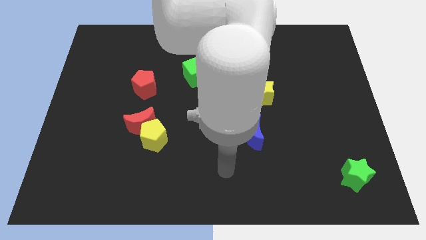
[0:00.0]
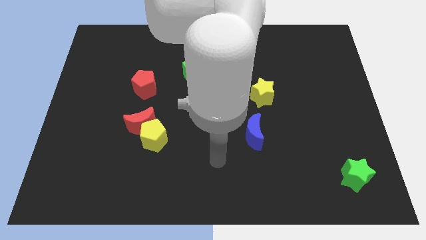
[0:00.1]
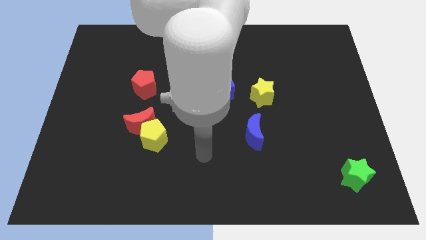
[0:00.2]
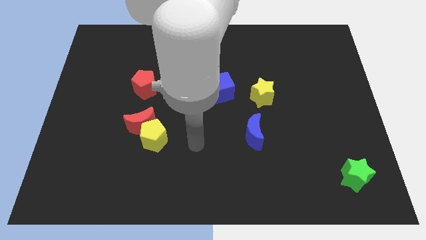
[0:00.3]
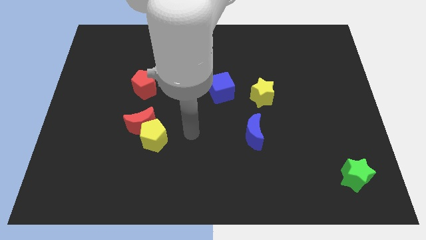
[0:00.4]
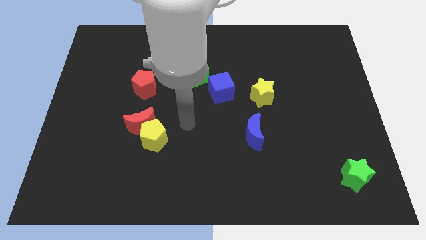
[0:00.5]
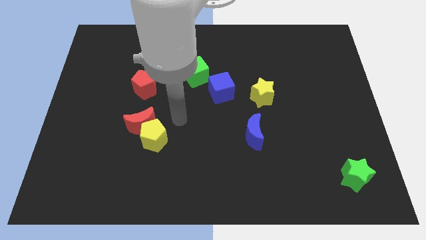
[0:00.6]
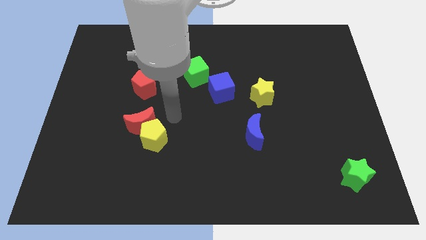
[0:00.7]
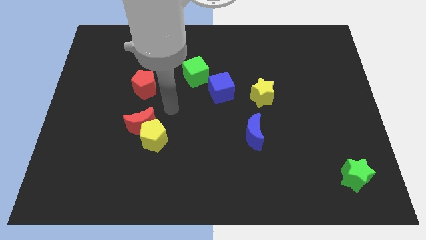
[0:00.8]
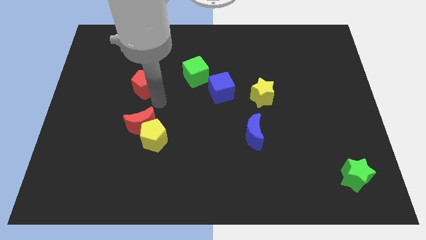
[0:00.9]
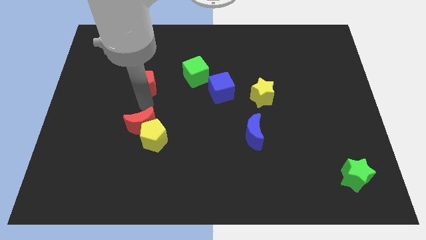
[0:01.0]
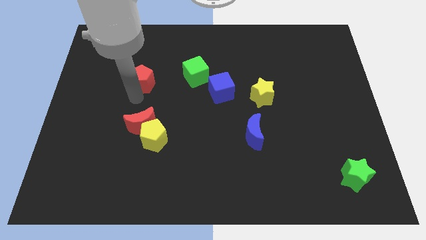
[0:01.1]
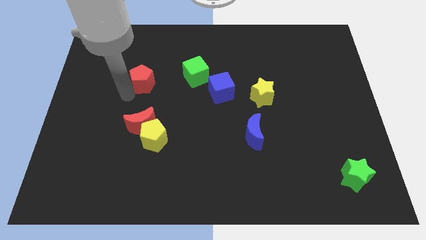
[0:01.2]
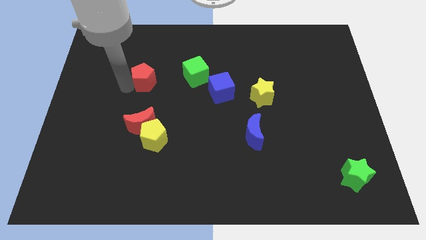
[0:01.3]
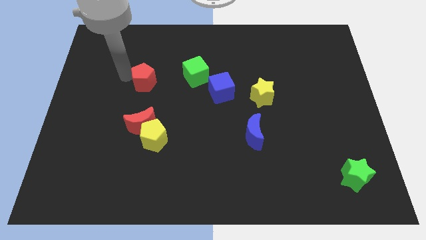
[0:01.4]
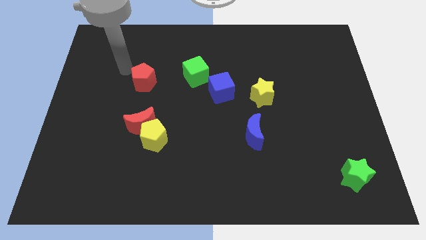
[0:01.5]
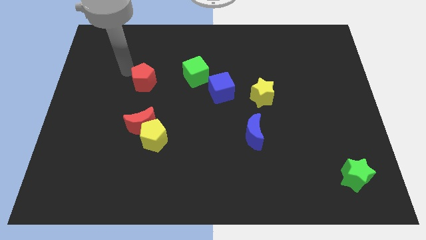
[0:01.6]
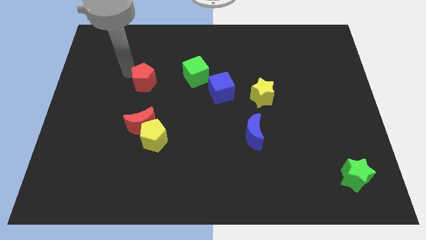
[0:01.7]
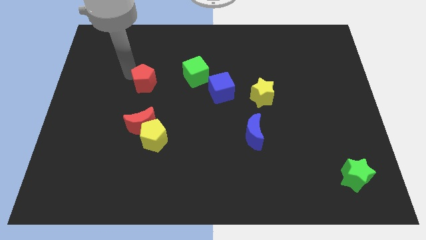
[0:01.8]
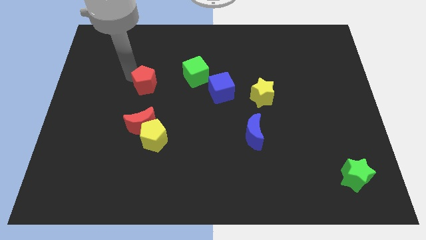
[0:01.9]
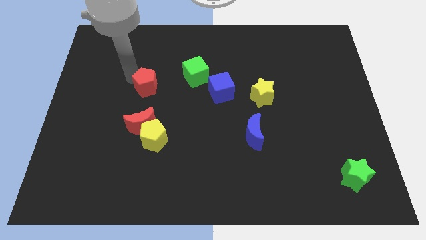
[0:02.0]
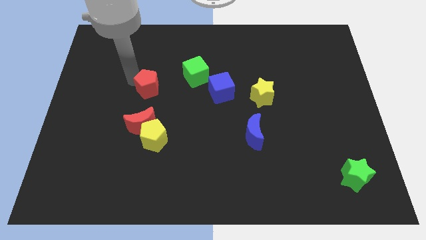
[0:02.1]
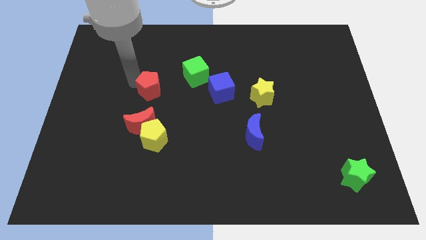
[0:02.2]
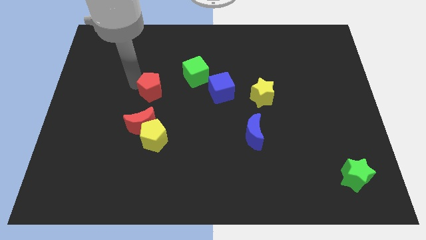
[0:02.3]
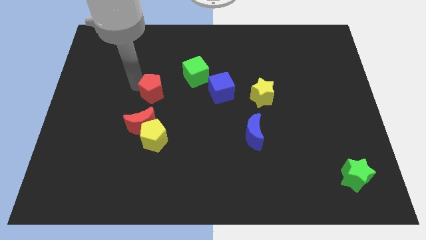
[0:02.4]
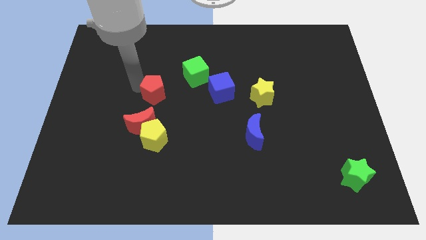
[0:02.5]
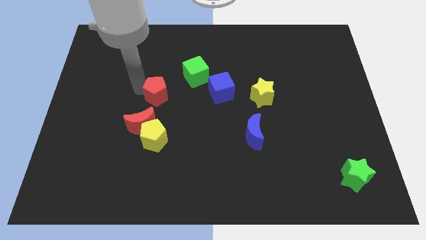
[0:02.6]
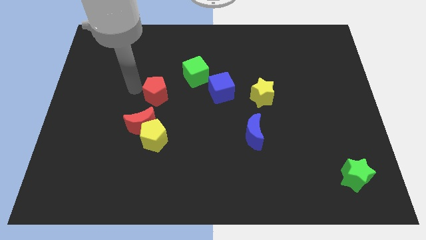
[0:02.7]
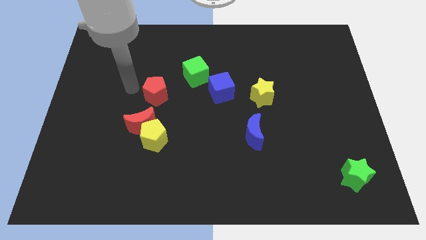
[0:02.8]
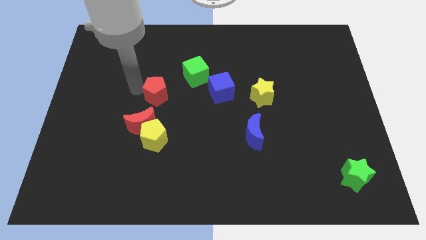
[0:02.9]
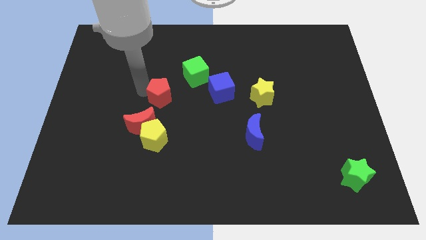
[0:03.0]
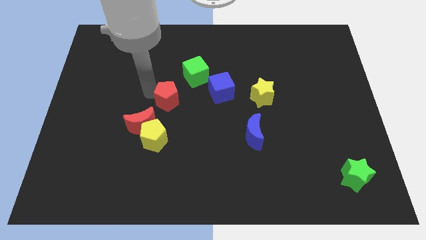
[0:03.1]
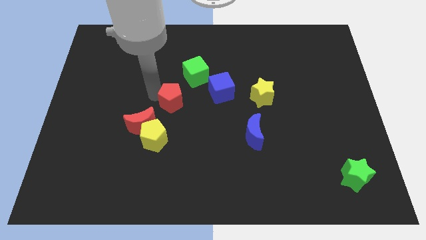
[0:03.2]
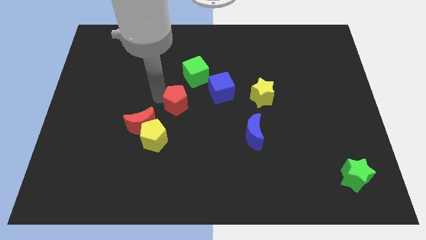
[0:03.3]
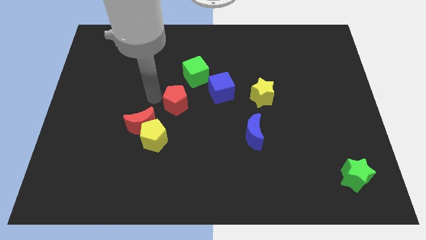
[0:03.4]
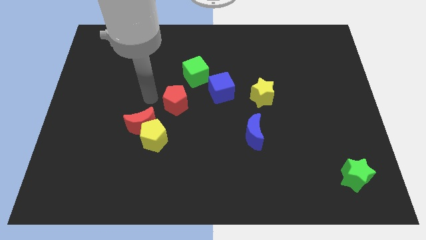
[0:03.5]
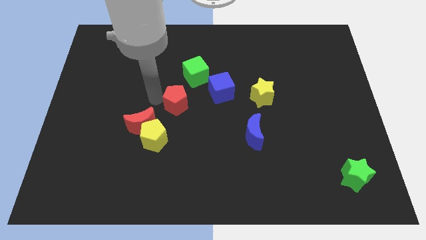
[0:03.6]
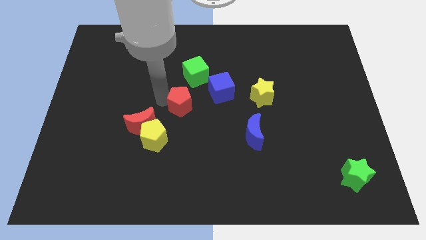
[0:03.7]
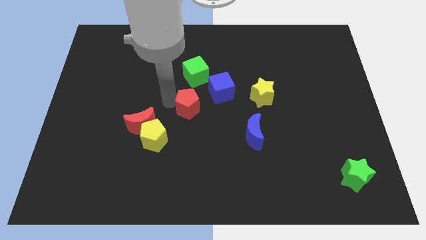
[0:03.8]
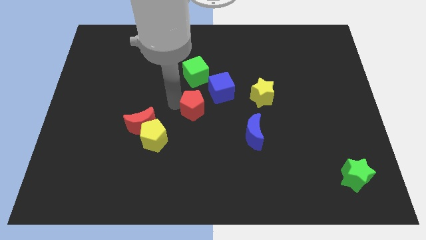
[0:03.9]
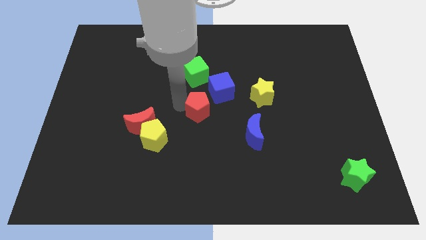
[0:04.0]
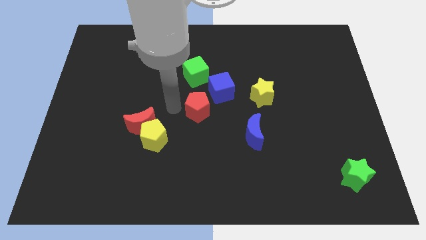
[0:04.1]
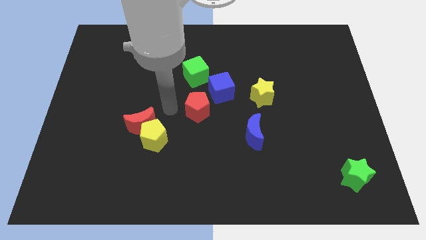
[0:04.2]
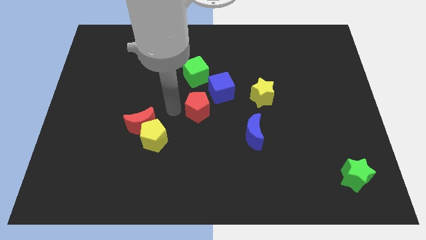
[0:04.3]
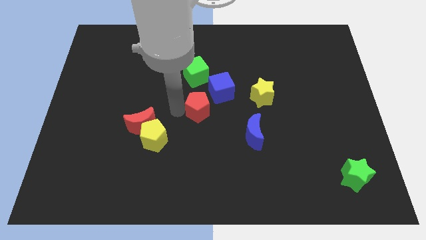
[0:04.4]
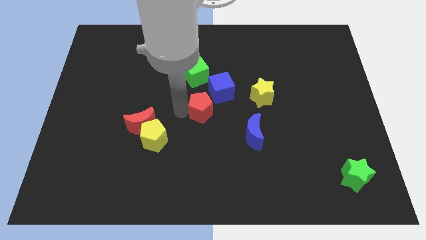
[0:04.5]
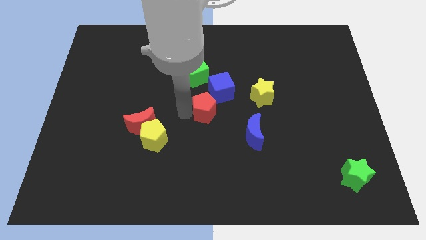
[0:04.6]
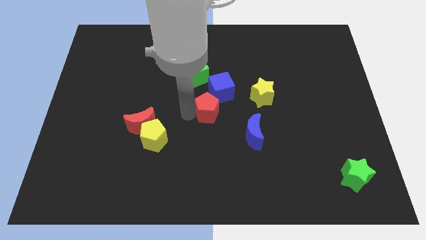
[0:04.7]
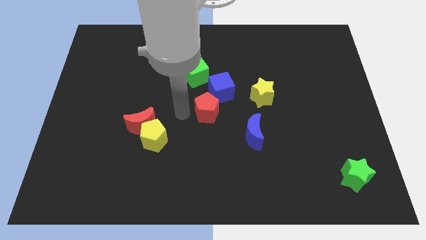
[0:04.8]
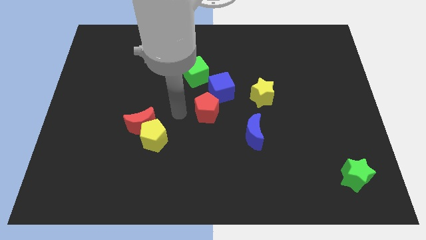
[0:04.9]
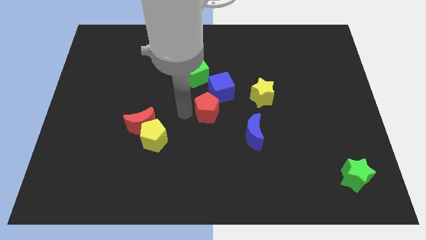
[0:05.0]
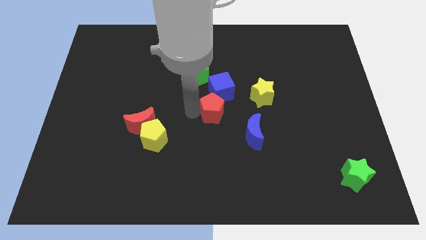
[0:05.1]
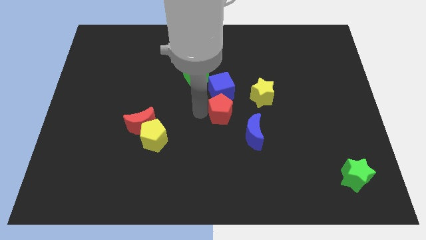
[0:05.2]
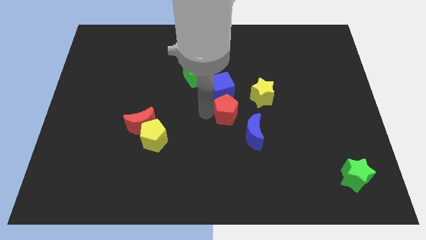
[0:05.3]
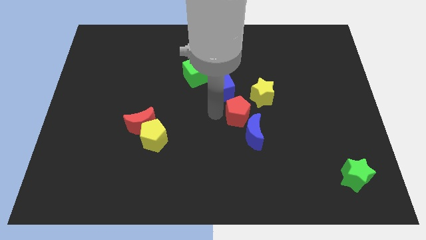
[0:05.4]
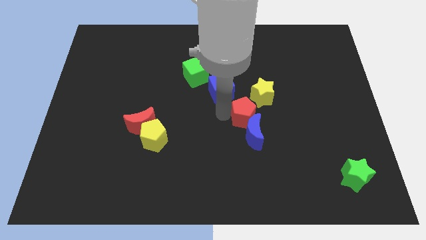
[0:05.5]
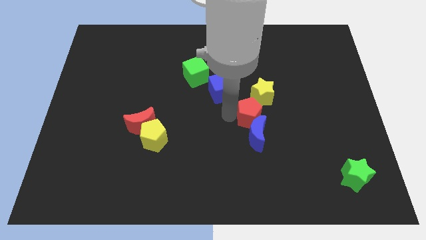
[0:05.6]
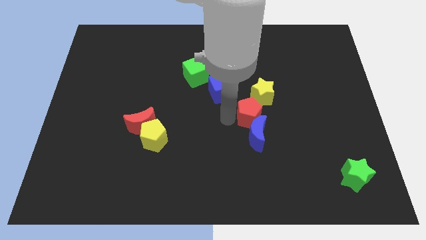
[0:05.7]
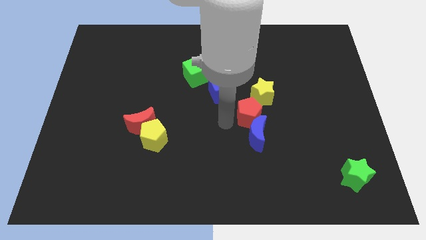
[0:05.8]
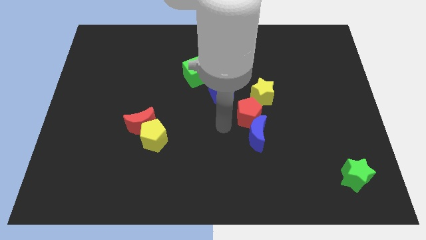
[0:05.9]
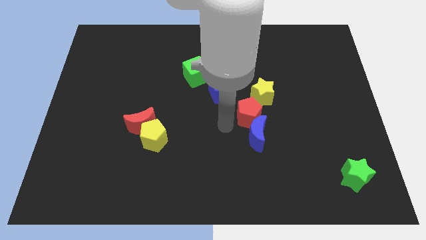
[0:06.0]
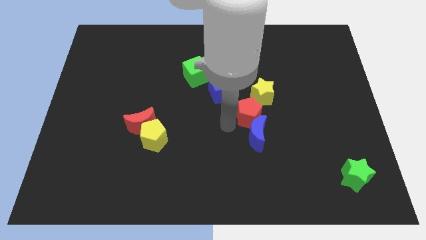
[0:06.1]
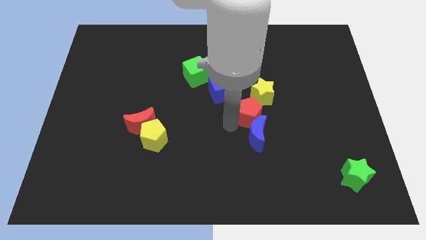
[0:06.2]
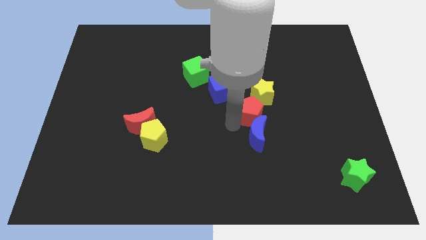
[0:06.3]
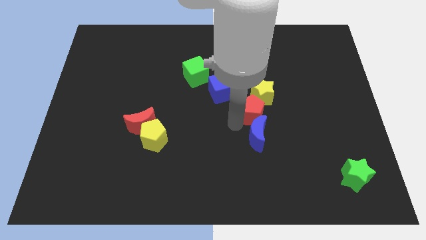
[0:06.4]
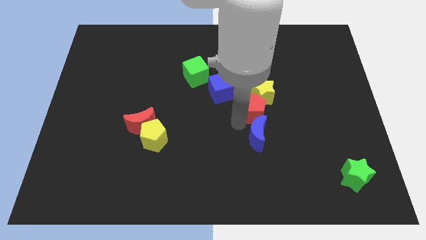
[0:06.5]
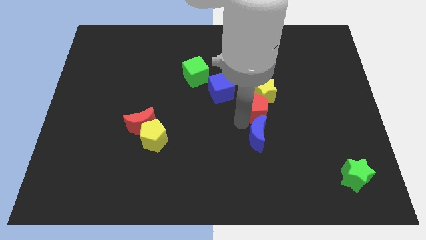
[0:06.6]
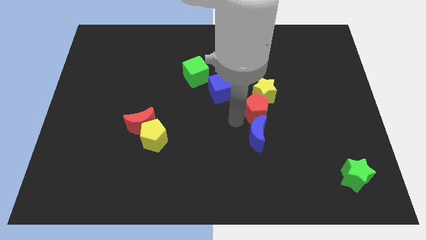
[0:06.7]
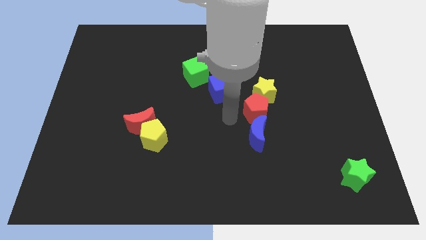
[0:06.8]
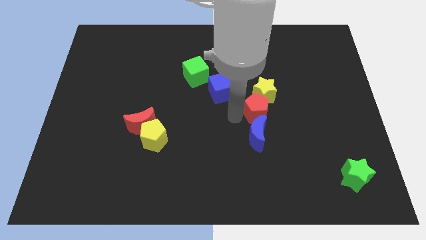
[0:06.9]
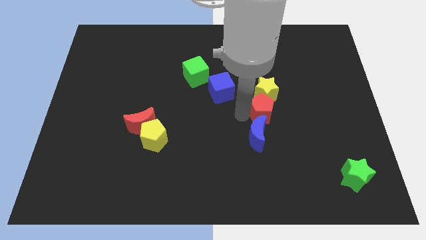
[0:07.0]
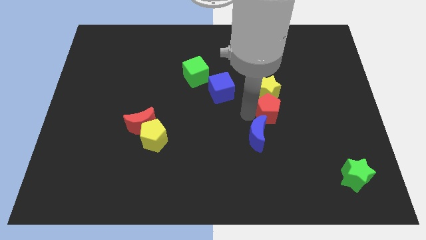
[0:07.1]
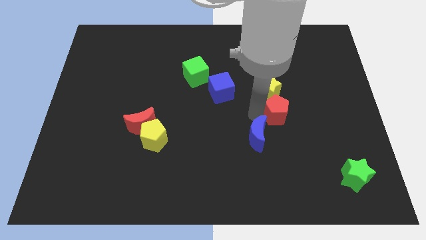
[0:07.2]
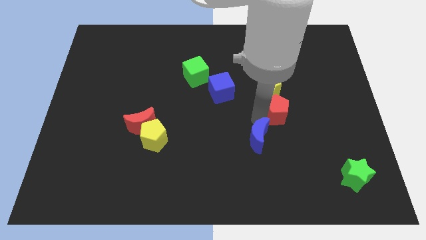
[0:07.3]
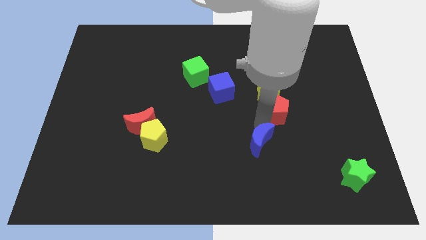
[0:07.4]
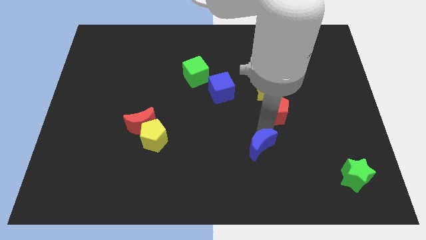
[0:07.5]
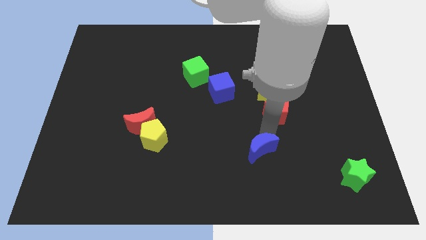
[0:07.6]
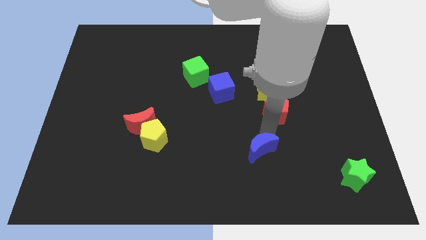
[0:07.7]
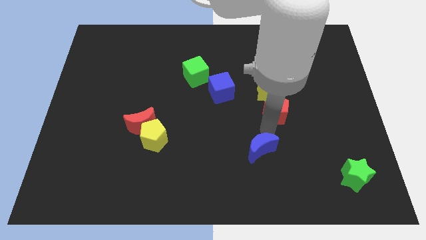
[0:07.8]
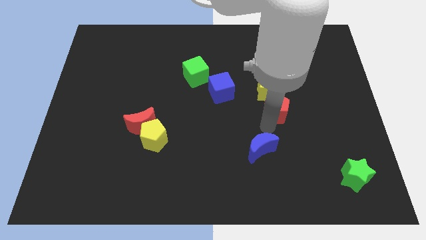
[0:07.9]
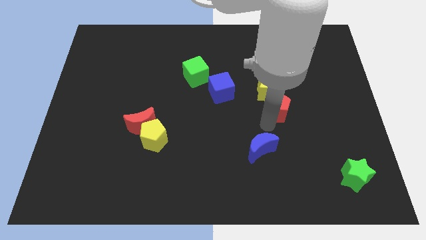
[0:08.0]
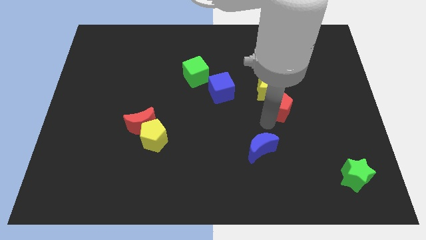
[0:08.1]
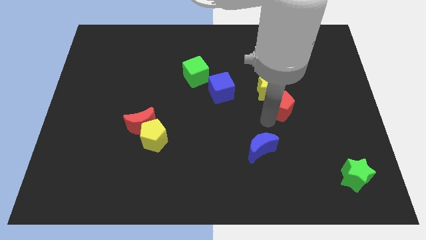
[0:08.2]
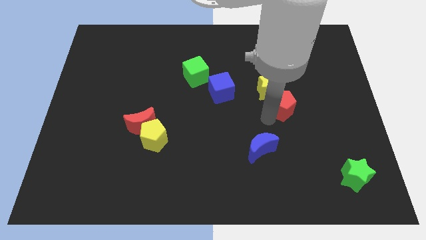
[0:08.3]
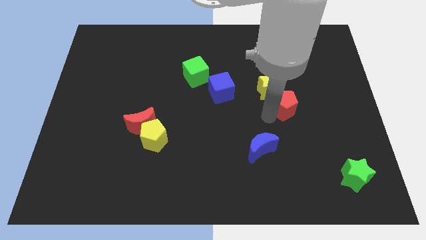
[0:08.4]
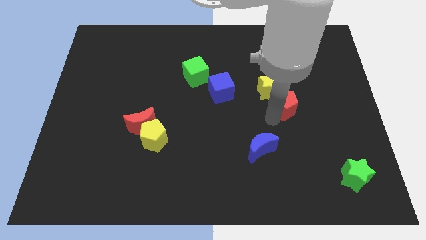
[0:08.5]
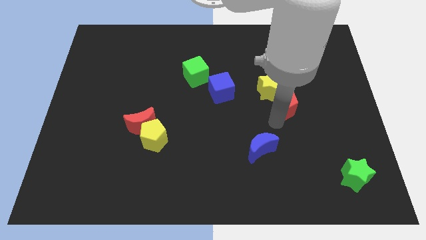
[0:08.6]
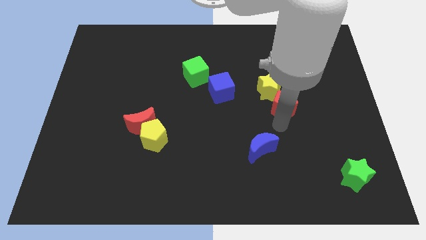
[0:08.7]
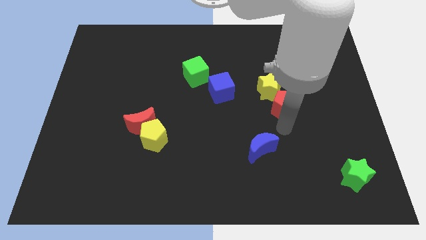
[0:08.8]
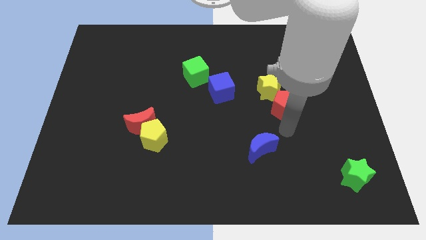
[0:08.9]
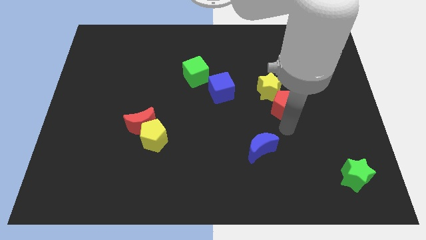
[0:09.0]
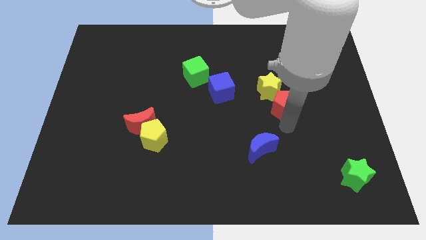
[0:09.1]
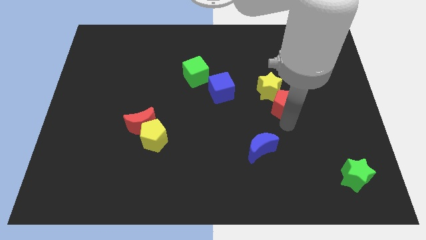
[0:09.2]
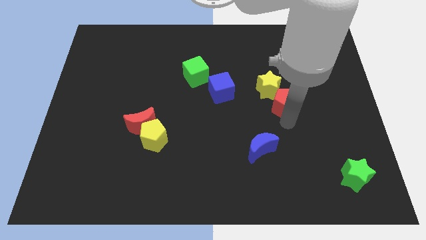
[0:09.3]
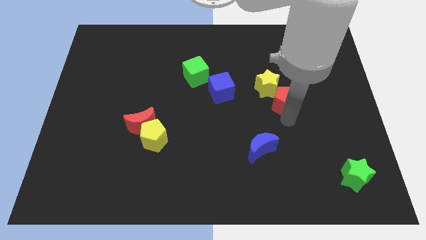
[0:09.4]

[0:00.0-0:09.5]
put the red pentagon to the right of the blue cube
